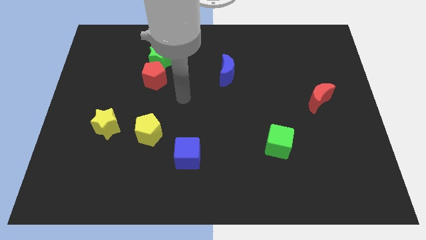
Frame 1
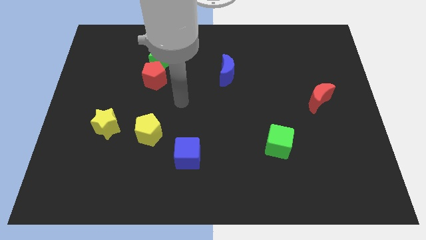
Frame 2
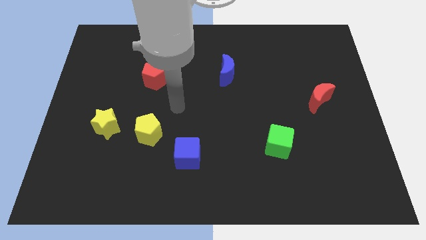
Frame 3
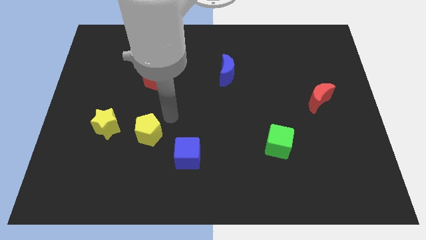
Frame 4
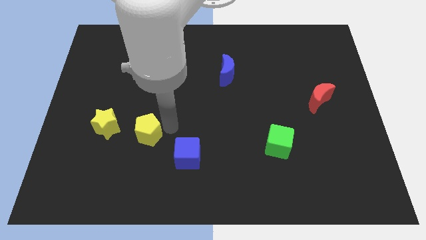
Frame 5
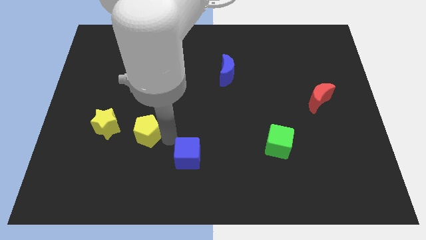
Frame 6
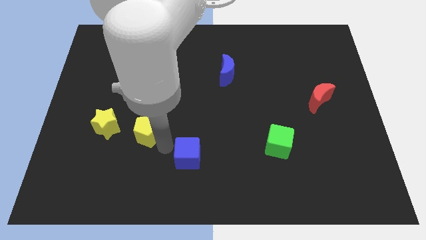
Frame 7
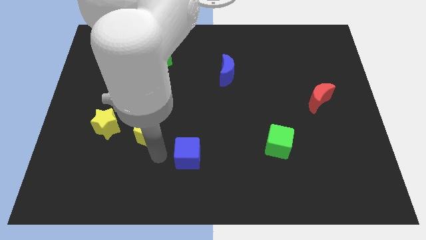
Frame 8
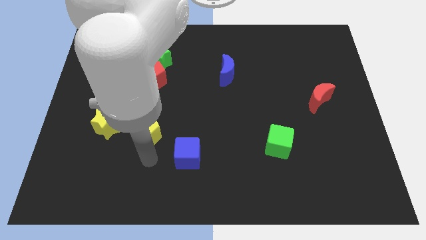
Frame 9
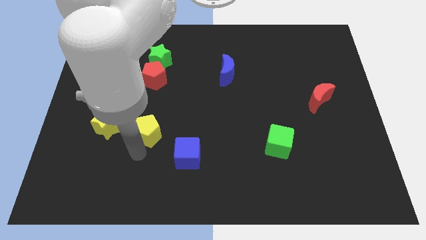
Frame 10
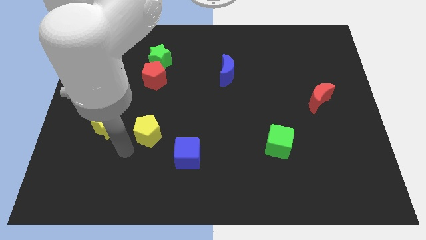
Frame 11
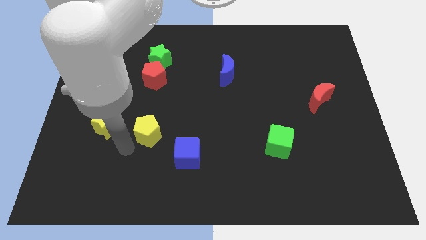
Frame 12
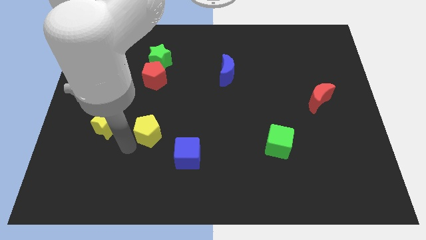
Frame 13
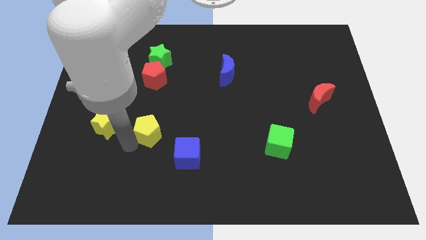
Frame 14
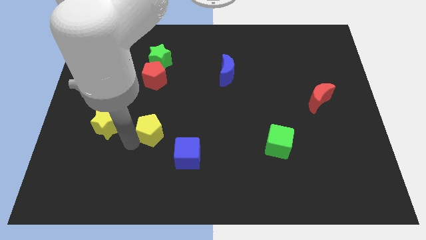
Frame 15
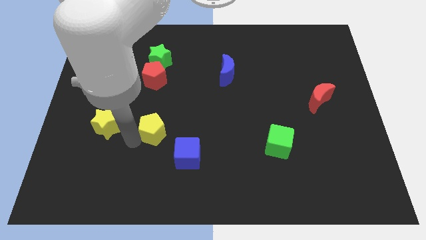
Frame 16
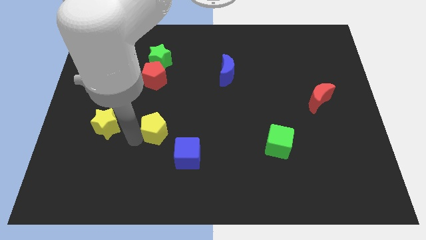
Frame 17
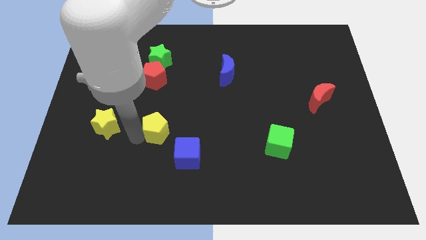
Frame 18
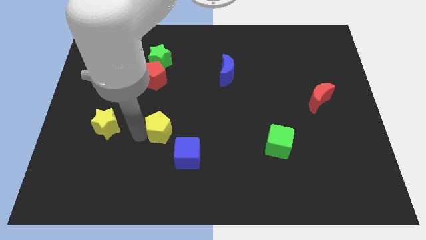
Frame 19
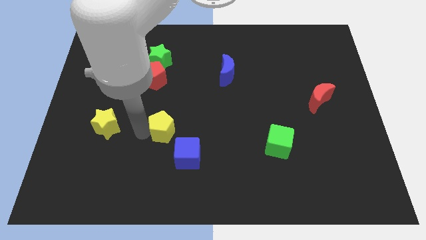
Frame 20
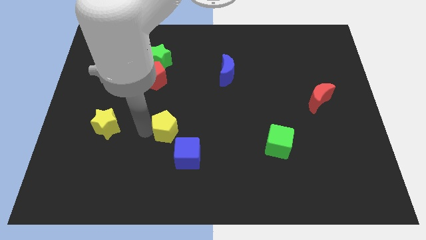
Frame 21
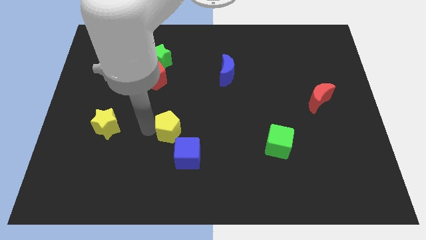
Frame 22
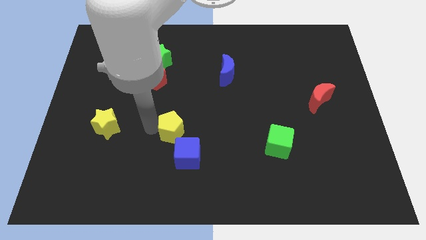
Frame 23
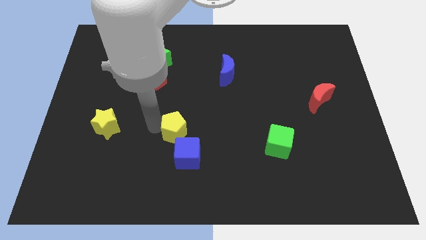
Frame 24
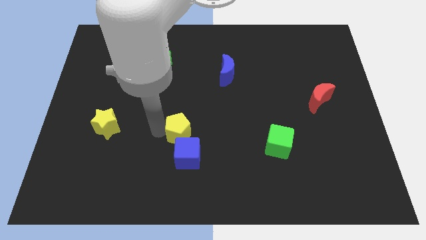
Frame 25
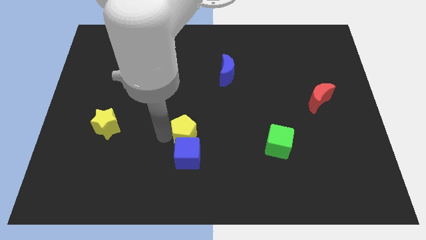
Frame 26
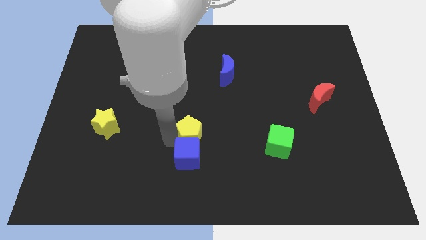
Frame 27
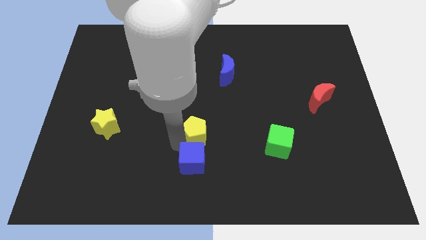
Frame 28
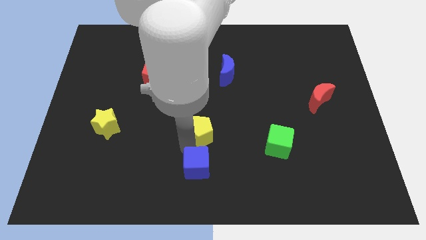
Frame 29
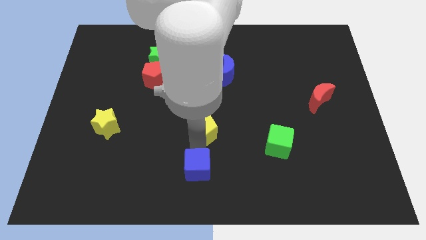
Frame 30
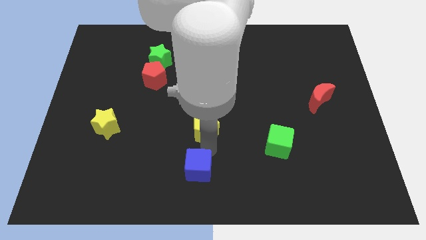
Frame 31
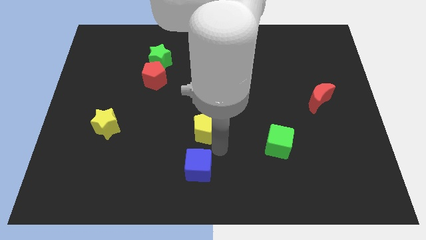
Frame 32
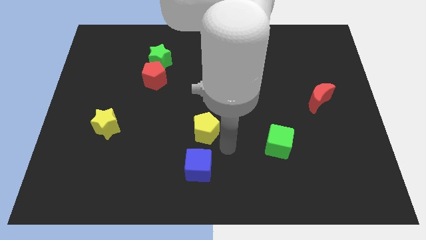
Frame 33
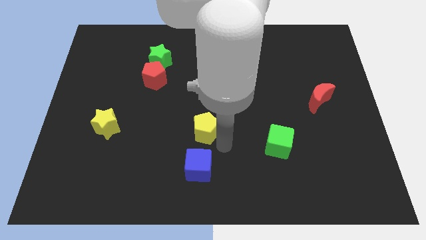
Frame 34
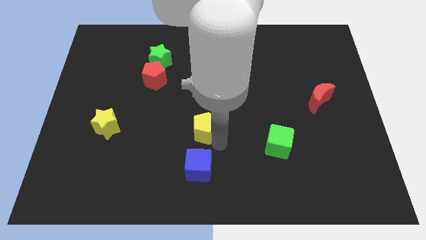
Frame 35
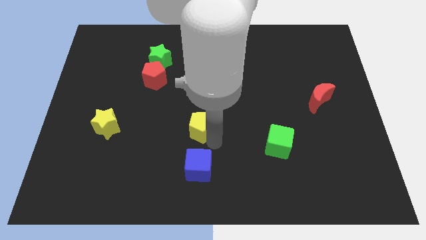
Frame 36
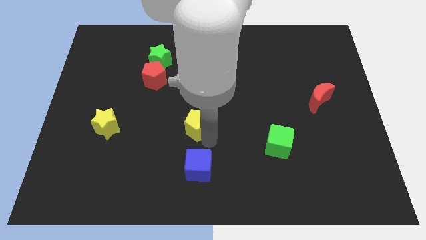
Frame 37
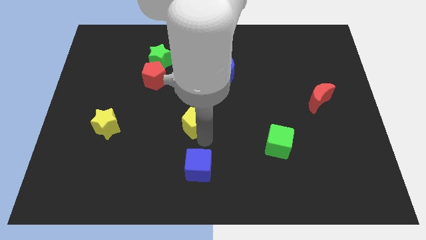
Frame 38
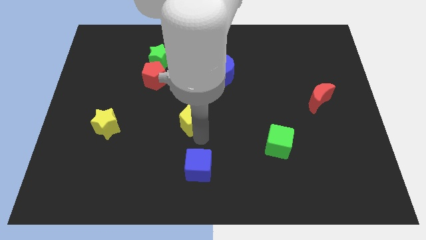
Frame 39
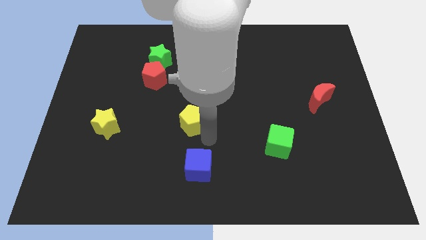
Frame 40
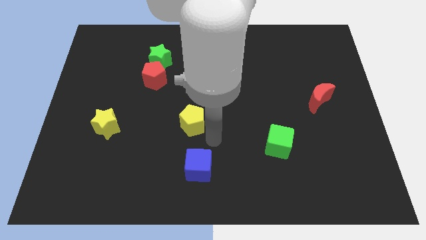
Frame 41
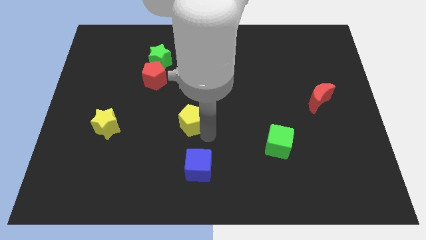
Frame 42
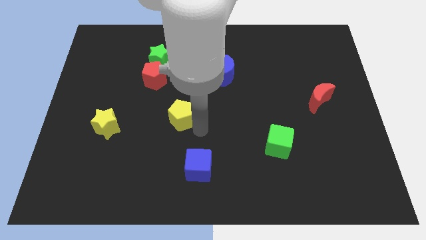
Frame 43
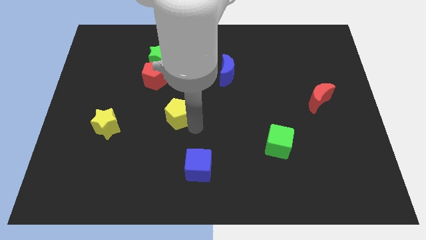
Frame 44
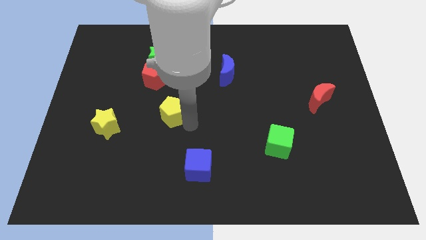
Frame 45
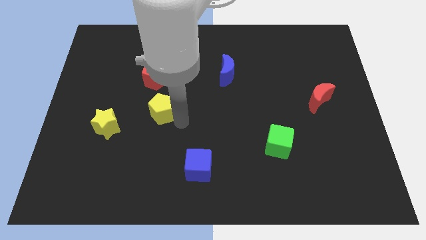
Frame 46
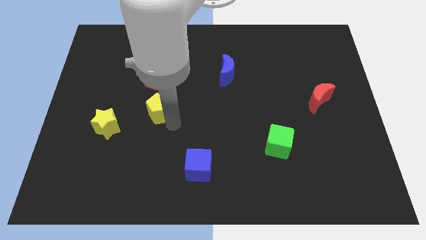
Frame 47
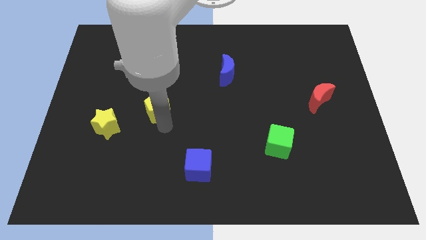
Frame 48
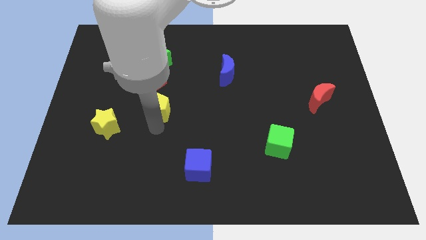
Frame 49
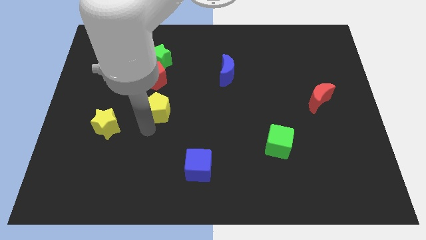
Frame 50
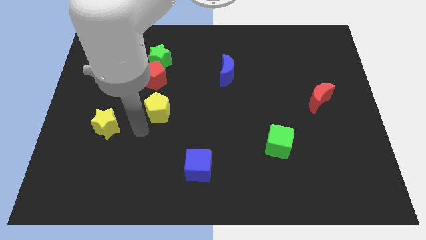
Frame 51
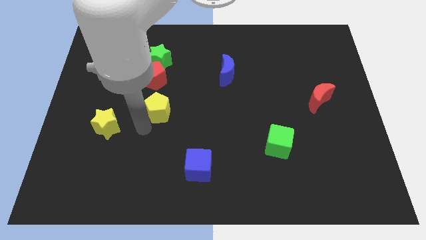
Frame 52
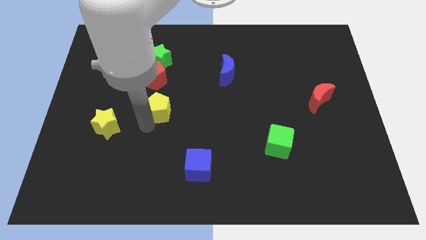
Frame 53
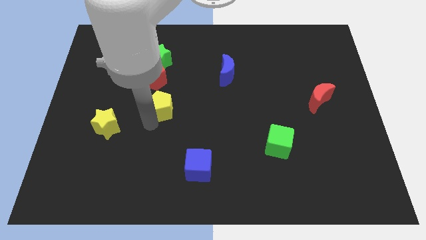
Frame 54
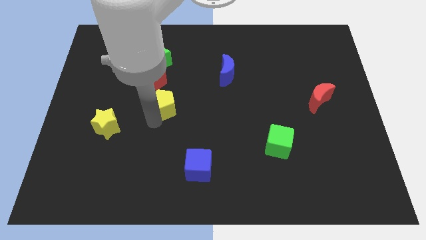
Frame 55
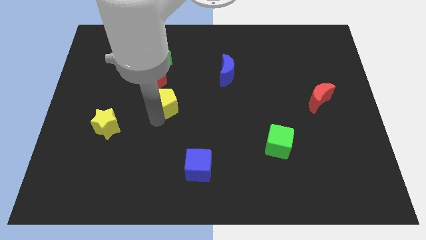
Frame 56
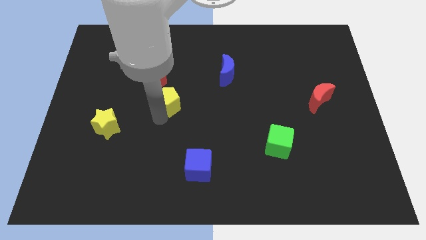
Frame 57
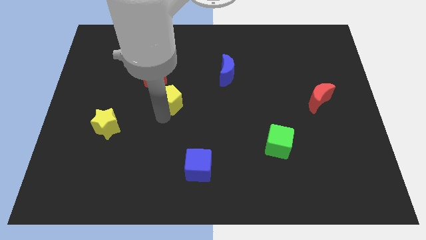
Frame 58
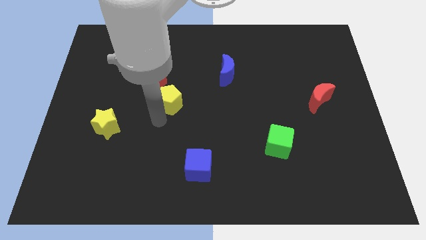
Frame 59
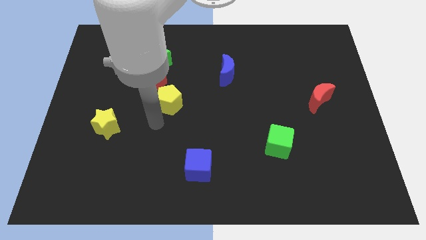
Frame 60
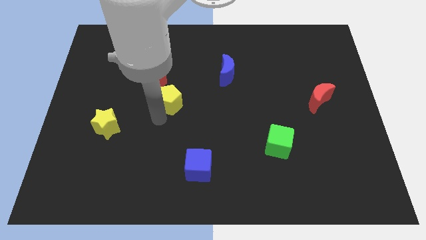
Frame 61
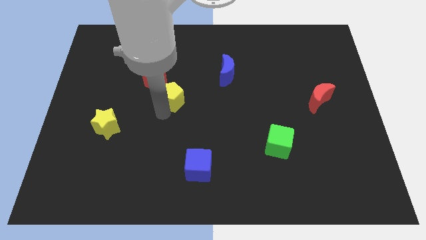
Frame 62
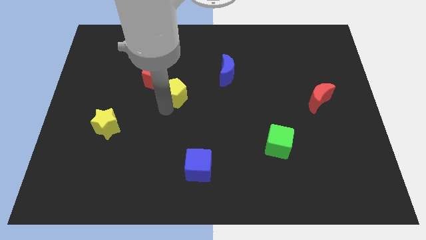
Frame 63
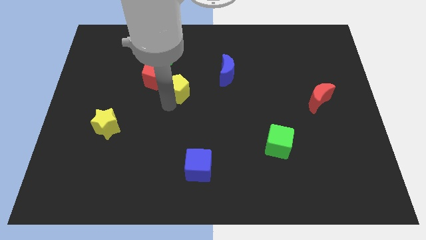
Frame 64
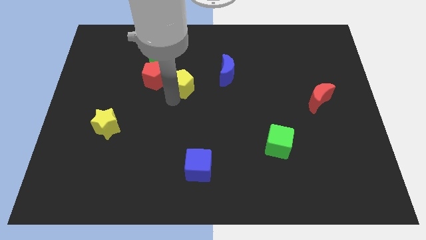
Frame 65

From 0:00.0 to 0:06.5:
slide the yellow pentagon to the left of the blue moon
